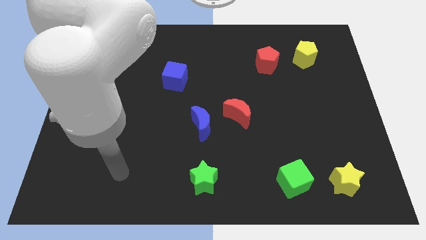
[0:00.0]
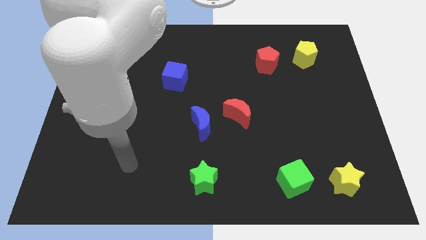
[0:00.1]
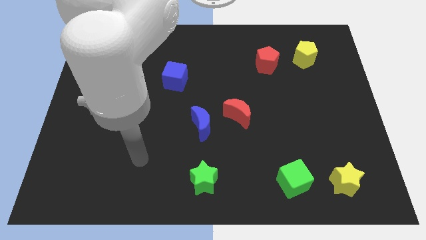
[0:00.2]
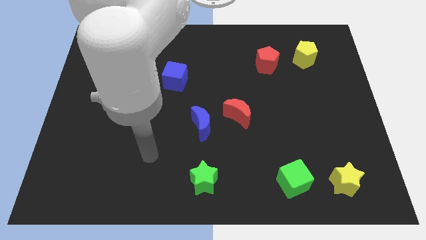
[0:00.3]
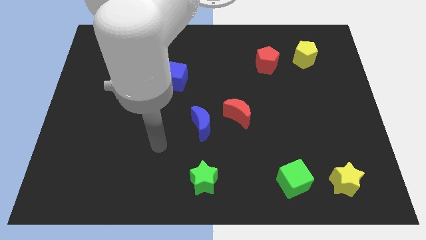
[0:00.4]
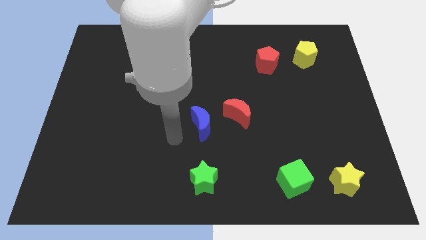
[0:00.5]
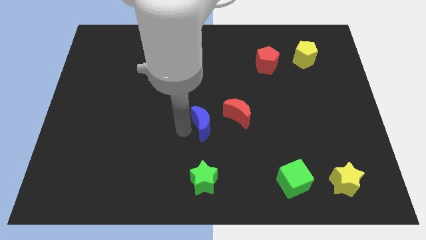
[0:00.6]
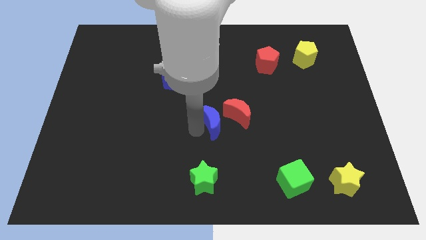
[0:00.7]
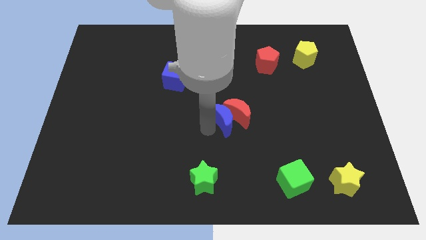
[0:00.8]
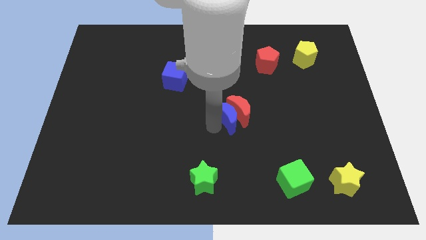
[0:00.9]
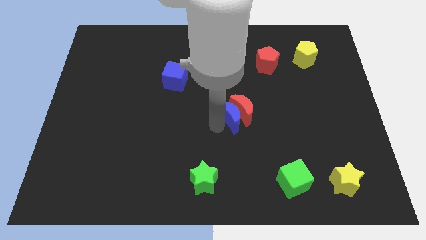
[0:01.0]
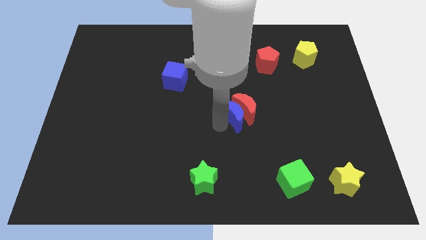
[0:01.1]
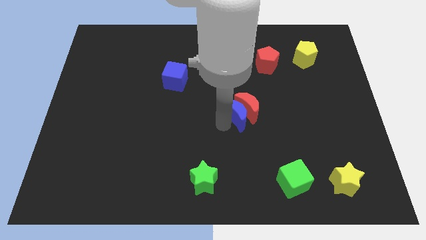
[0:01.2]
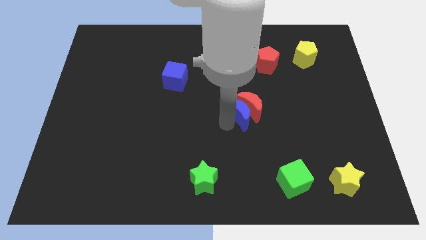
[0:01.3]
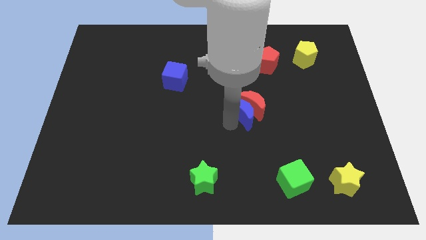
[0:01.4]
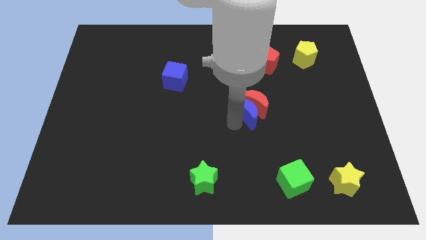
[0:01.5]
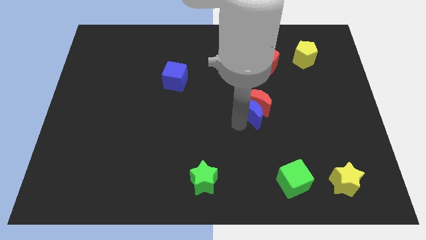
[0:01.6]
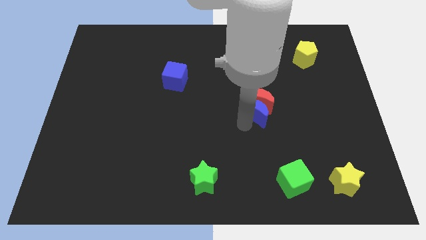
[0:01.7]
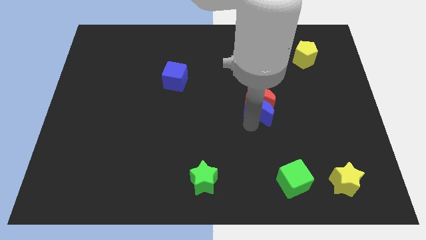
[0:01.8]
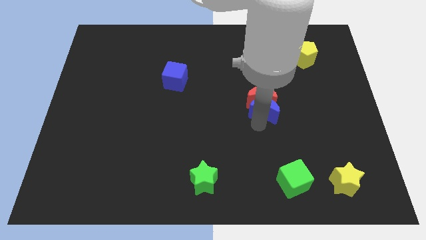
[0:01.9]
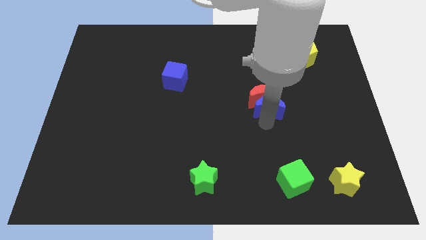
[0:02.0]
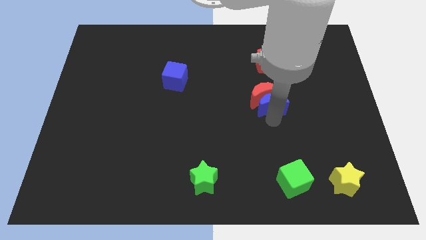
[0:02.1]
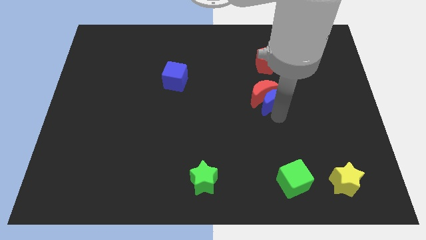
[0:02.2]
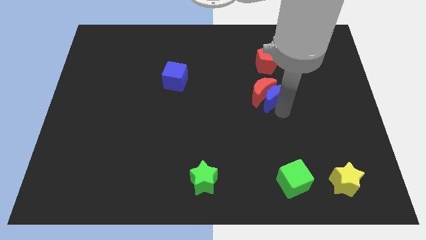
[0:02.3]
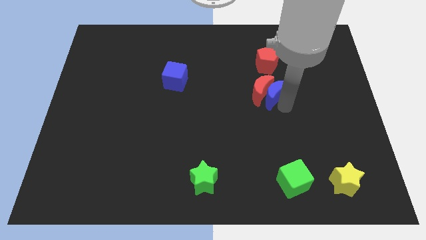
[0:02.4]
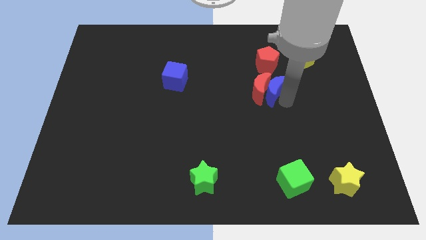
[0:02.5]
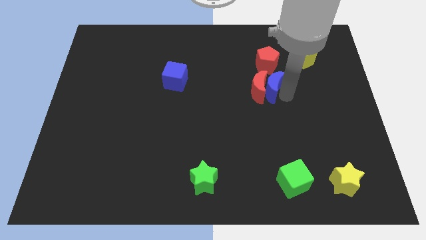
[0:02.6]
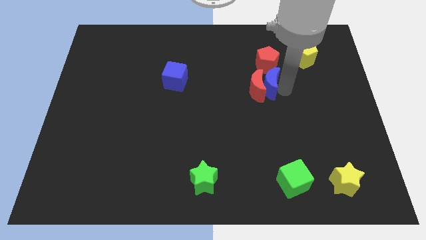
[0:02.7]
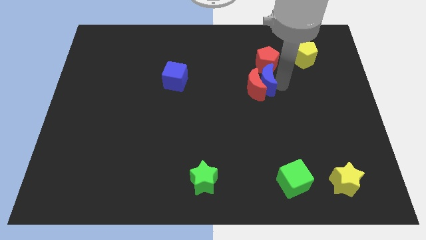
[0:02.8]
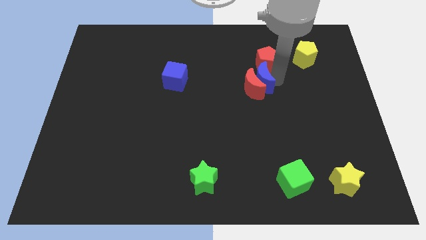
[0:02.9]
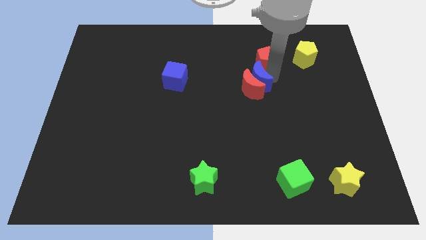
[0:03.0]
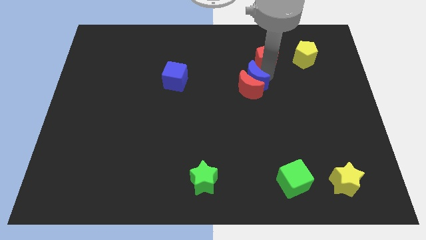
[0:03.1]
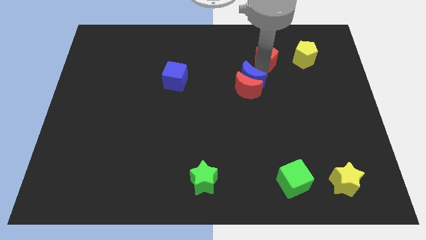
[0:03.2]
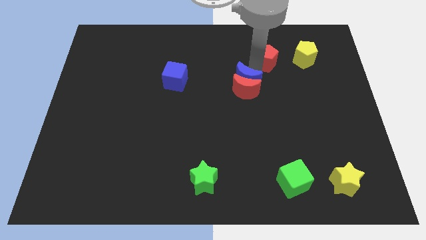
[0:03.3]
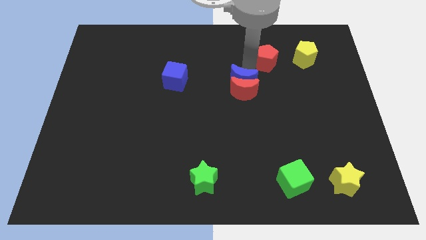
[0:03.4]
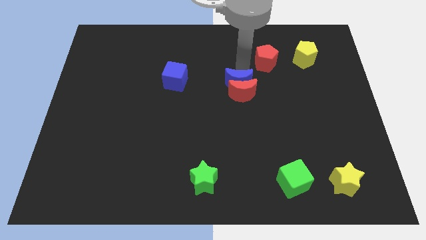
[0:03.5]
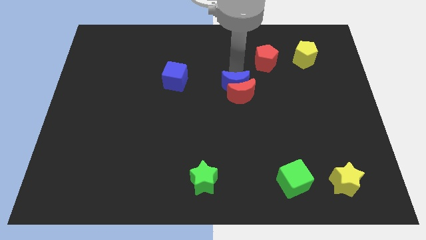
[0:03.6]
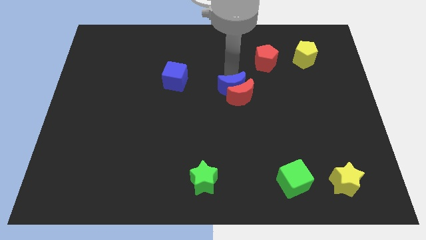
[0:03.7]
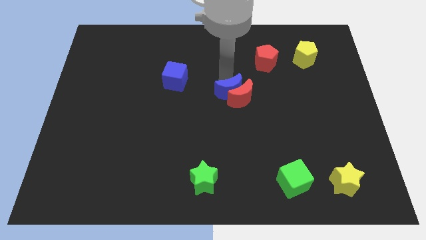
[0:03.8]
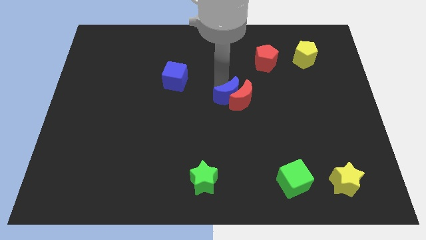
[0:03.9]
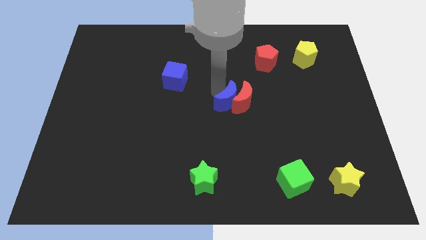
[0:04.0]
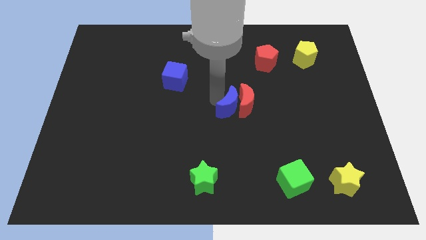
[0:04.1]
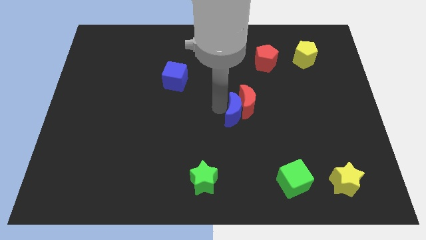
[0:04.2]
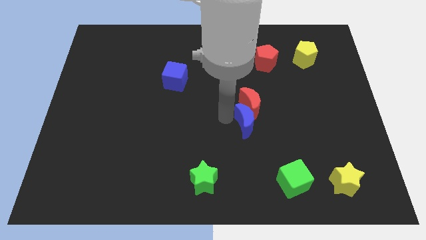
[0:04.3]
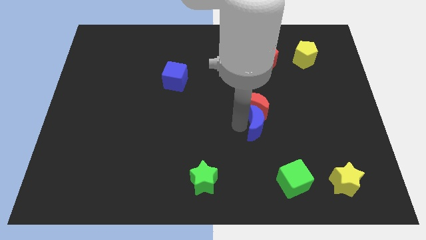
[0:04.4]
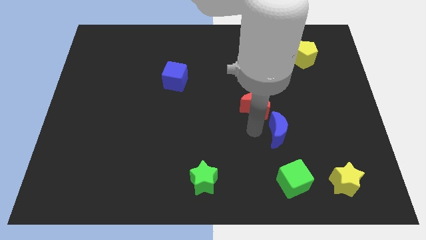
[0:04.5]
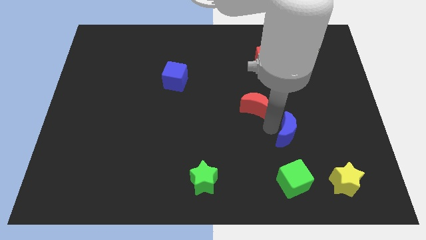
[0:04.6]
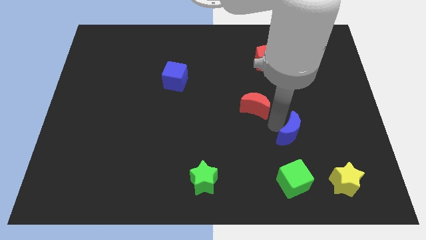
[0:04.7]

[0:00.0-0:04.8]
pull the red moon apart from the blue moon

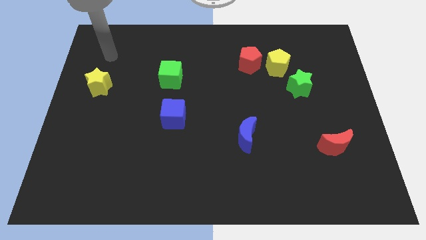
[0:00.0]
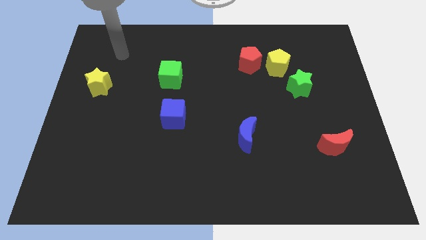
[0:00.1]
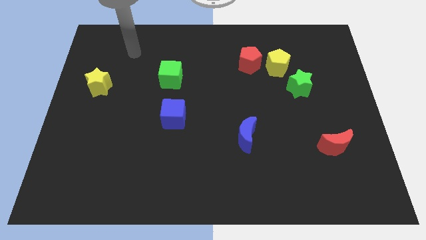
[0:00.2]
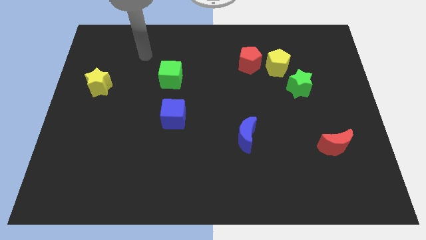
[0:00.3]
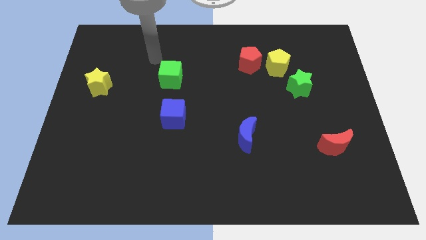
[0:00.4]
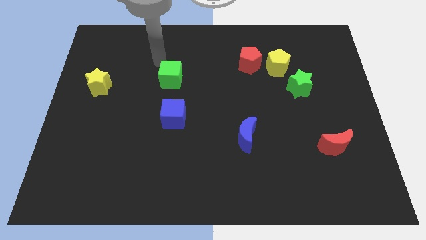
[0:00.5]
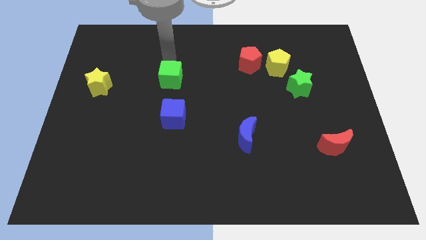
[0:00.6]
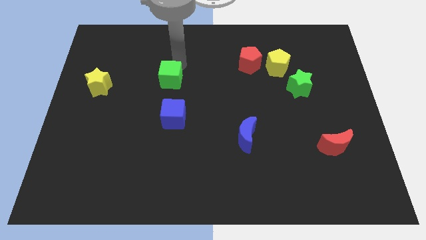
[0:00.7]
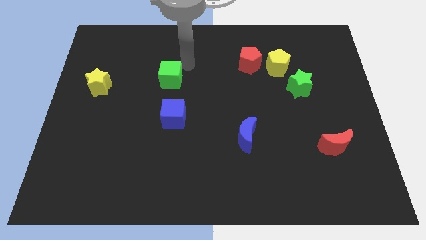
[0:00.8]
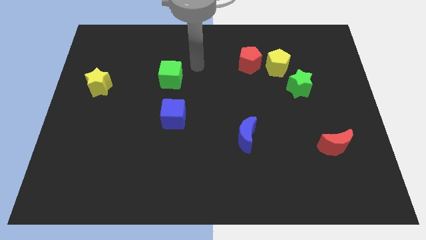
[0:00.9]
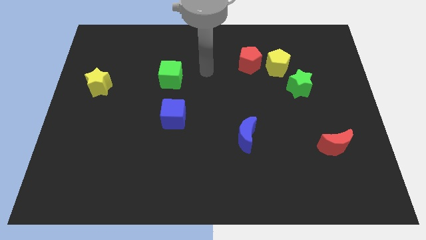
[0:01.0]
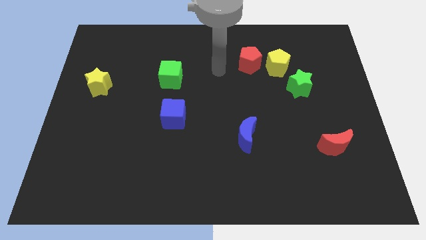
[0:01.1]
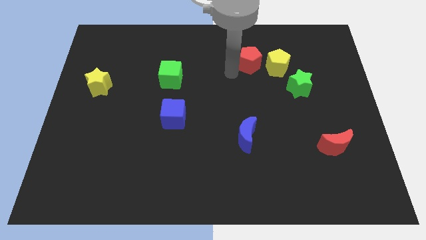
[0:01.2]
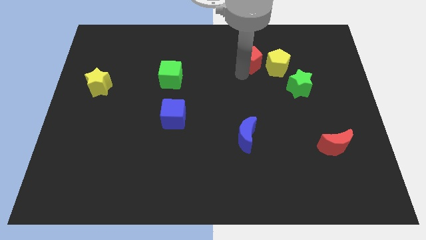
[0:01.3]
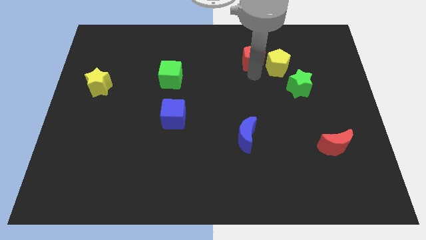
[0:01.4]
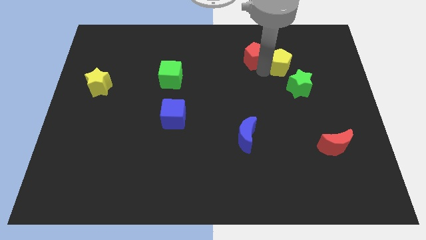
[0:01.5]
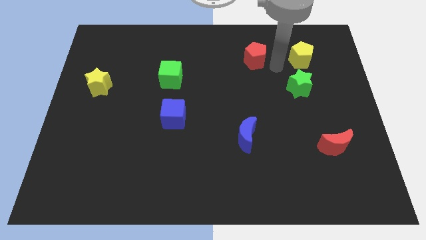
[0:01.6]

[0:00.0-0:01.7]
pull the red pentagon apart from the yellow pentagon

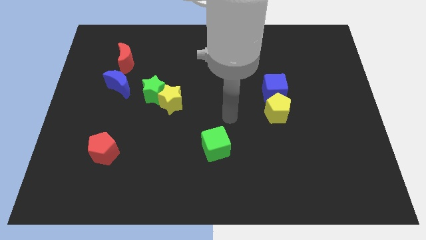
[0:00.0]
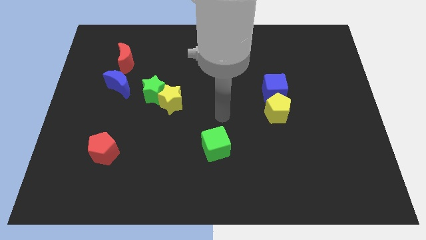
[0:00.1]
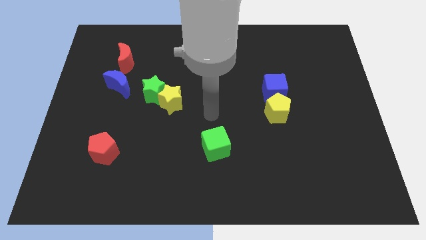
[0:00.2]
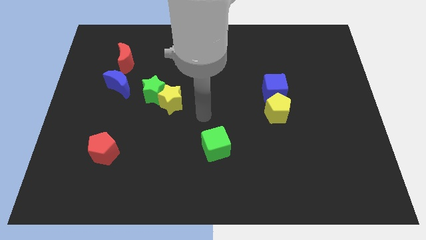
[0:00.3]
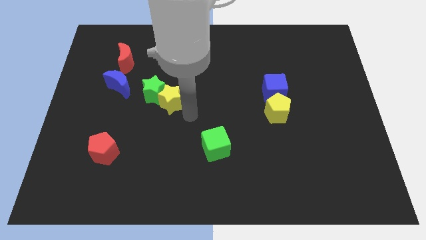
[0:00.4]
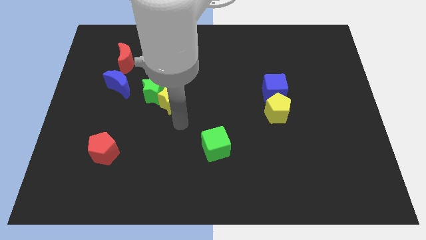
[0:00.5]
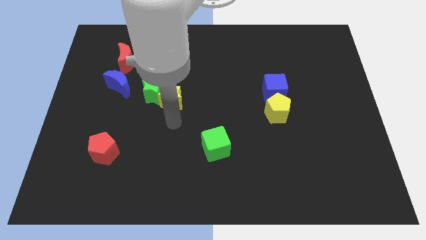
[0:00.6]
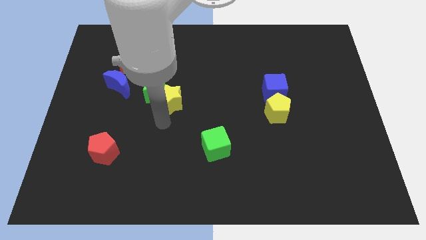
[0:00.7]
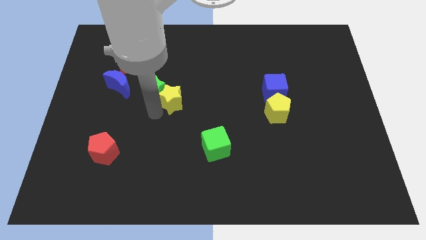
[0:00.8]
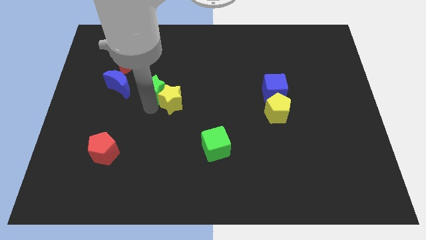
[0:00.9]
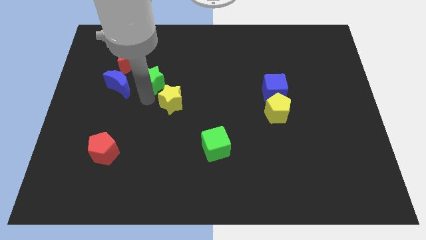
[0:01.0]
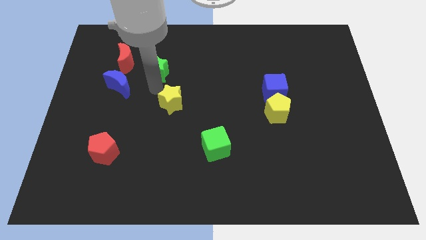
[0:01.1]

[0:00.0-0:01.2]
pull the yellow star apart from the green star

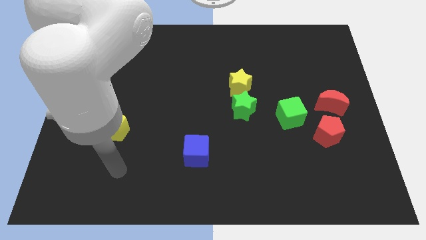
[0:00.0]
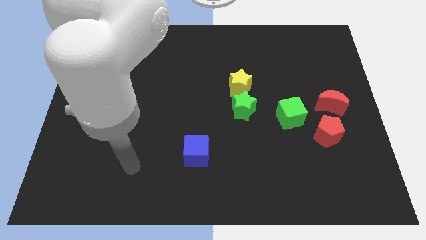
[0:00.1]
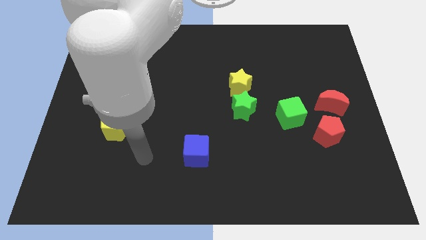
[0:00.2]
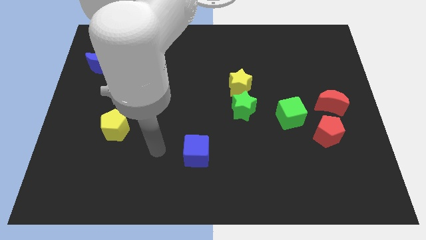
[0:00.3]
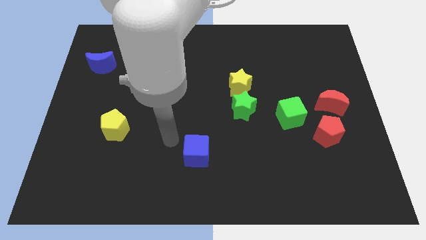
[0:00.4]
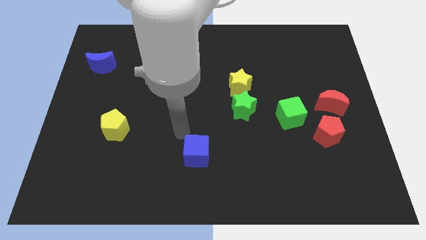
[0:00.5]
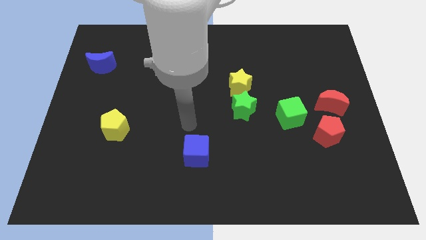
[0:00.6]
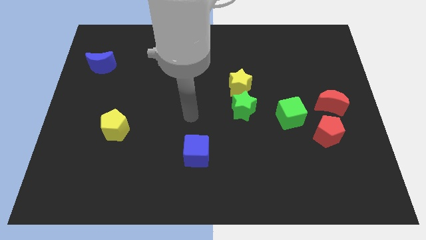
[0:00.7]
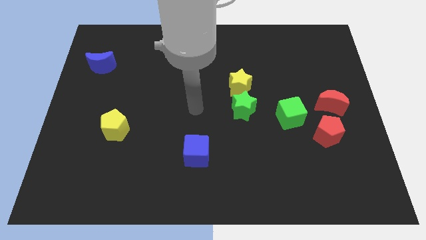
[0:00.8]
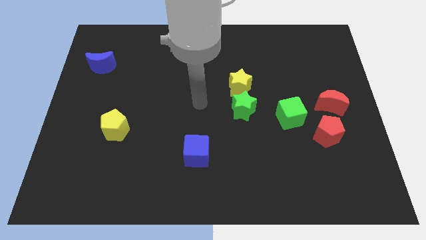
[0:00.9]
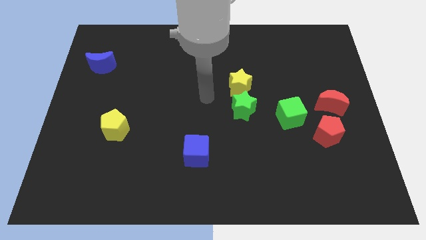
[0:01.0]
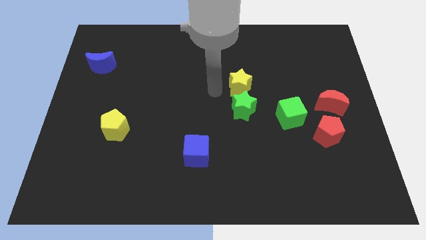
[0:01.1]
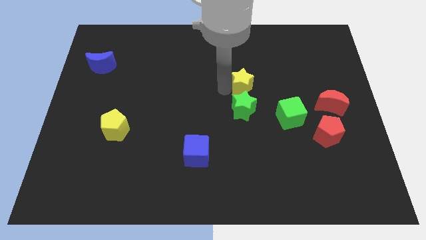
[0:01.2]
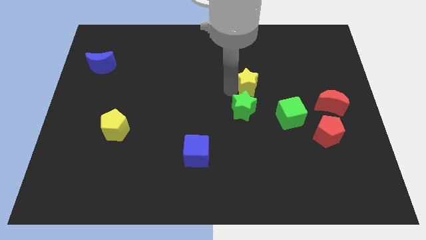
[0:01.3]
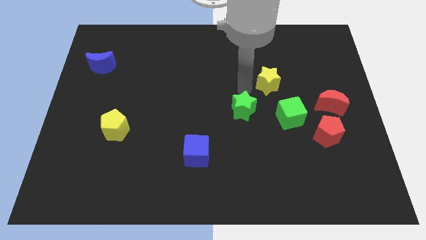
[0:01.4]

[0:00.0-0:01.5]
separate the green star from the yellow star

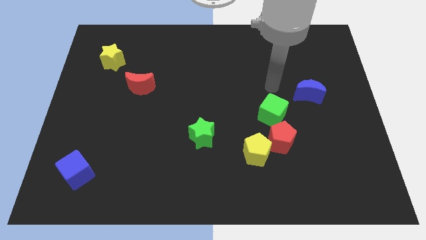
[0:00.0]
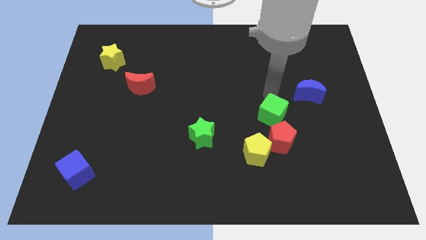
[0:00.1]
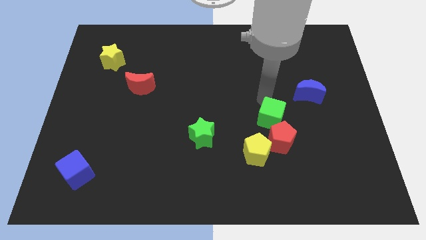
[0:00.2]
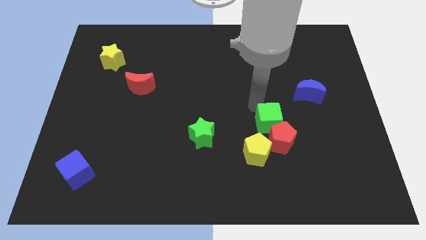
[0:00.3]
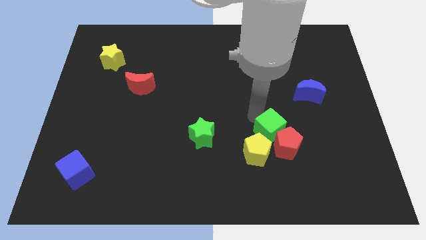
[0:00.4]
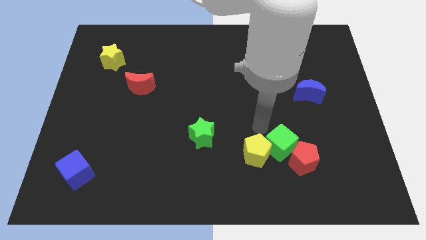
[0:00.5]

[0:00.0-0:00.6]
separate the yellow pentagon from the red pentagon
